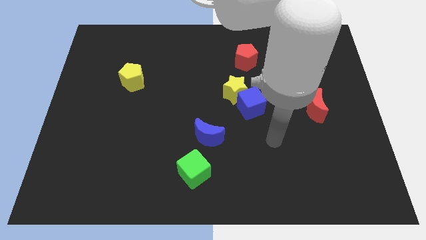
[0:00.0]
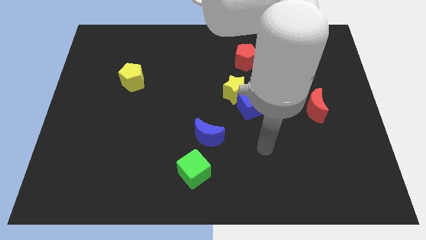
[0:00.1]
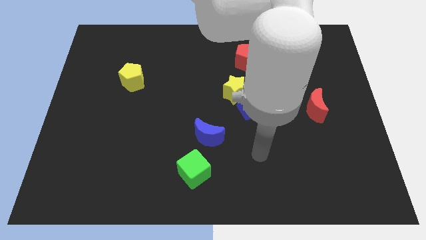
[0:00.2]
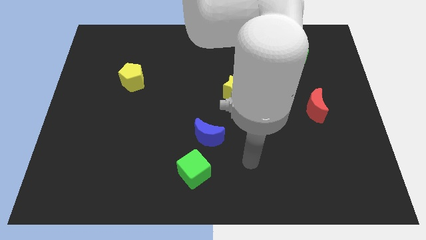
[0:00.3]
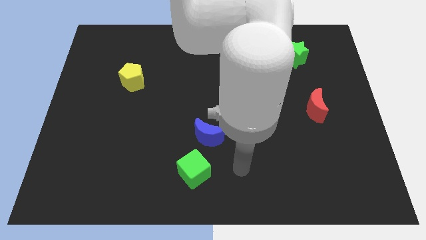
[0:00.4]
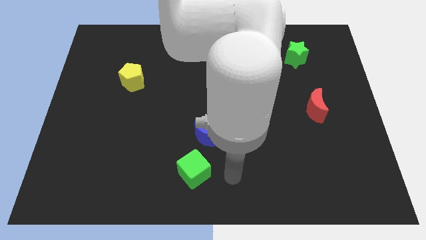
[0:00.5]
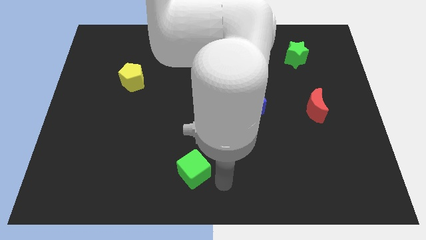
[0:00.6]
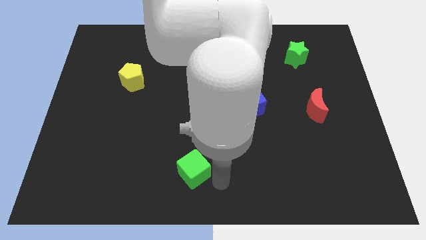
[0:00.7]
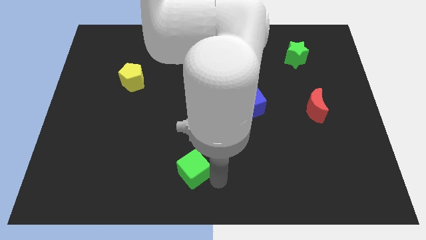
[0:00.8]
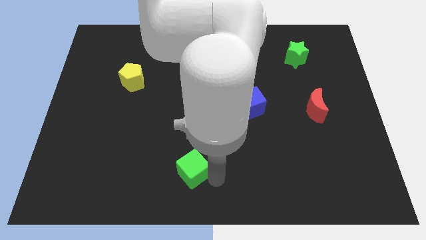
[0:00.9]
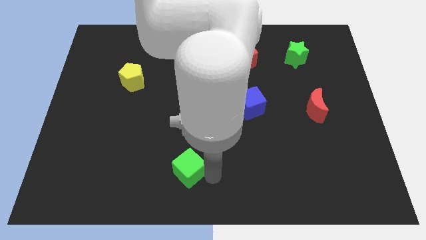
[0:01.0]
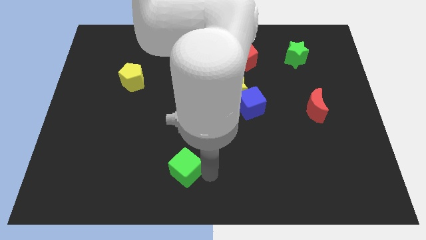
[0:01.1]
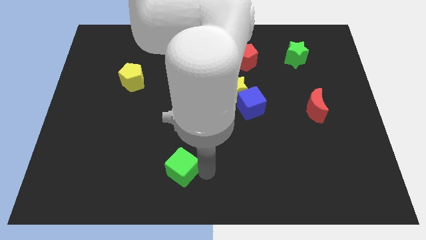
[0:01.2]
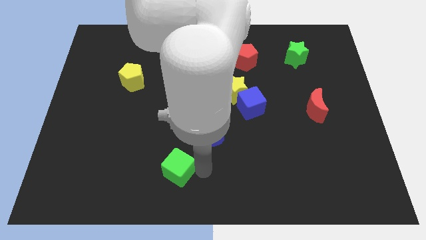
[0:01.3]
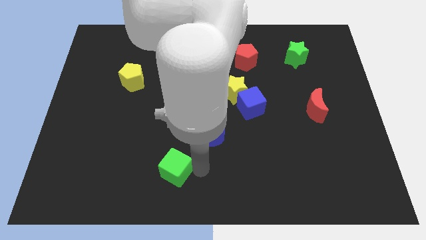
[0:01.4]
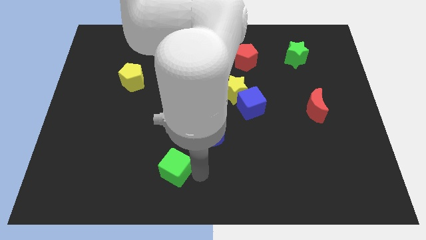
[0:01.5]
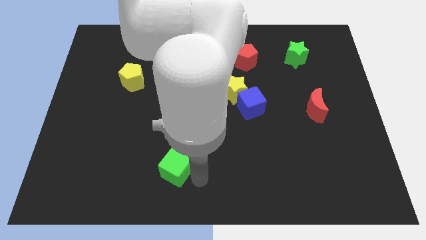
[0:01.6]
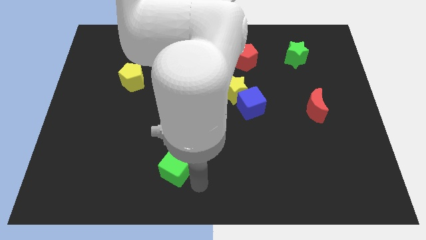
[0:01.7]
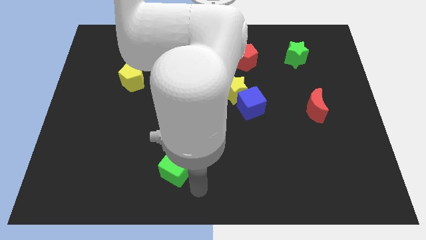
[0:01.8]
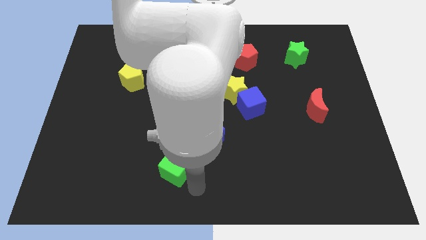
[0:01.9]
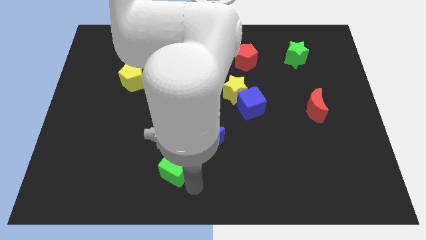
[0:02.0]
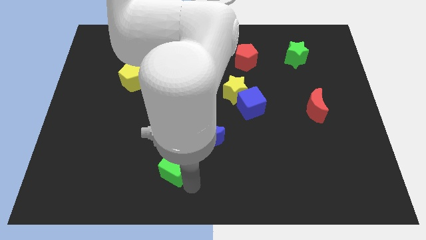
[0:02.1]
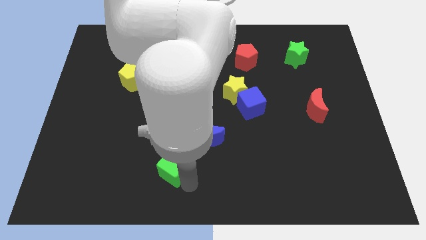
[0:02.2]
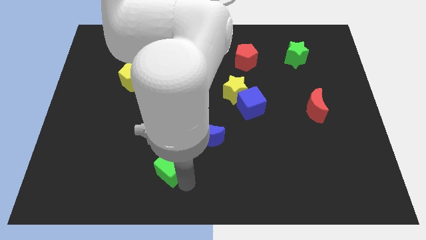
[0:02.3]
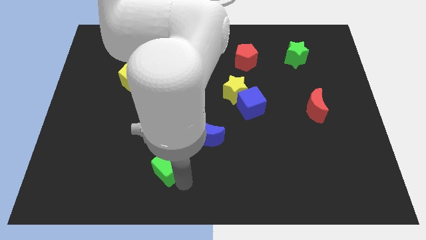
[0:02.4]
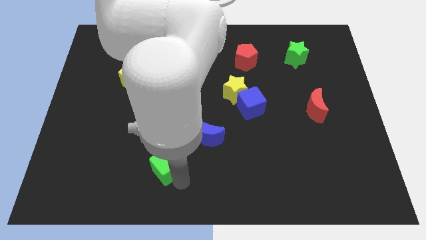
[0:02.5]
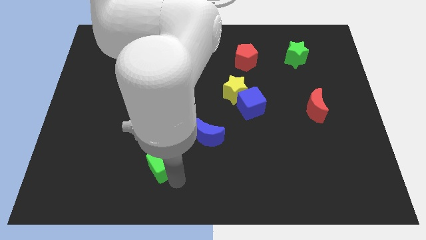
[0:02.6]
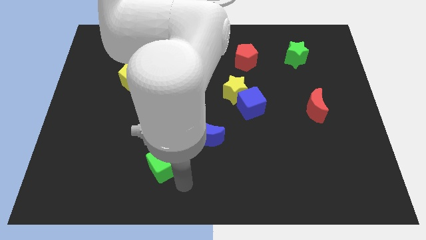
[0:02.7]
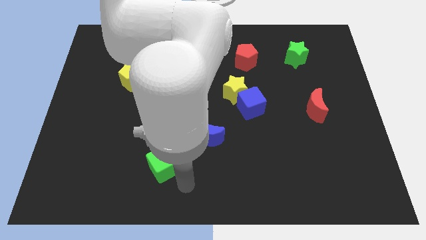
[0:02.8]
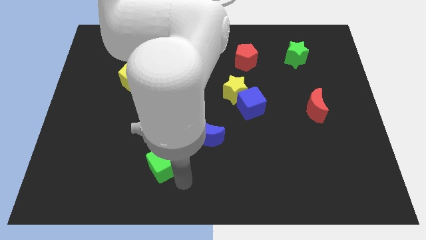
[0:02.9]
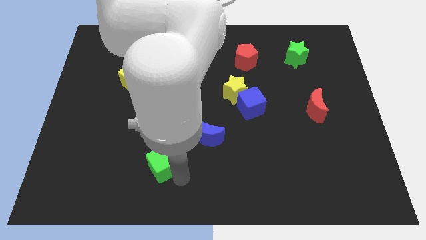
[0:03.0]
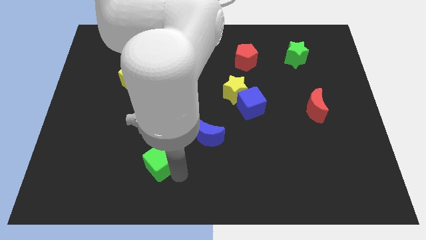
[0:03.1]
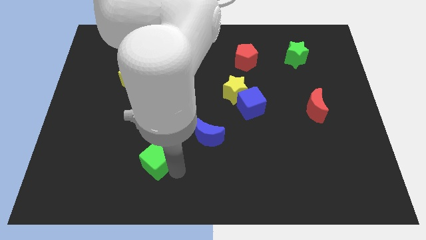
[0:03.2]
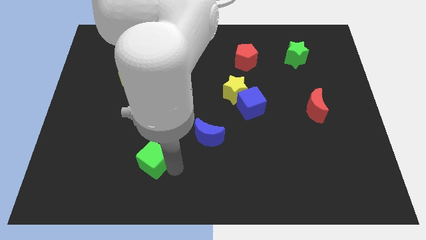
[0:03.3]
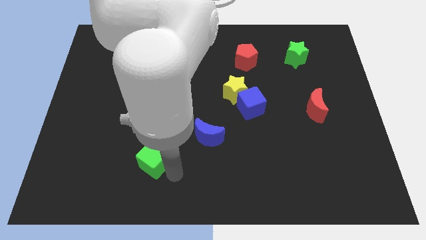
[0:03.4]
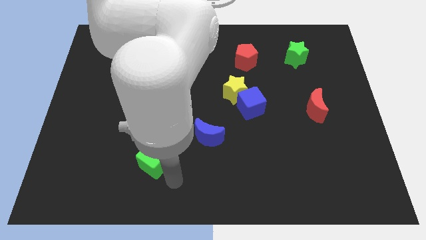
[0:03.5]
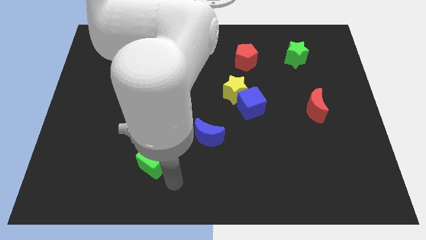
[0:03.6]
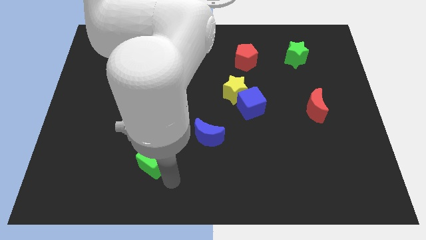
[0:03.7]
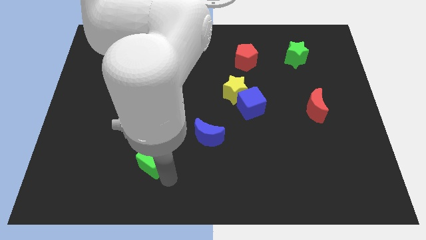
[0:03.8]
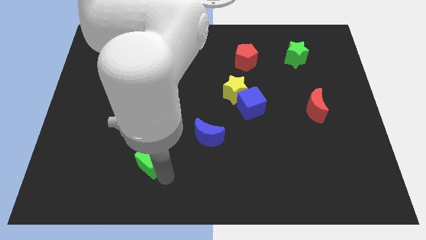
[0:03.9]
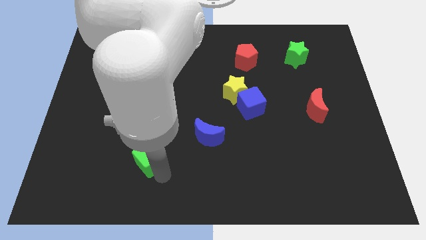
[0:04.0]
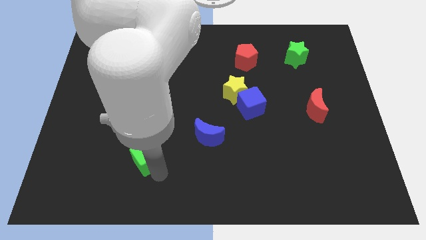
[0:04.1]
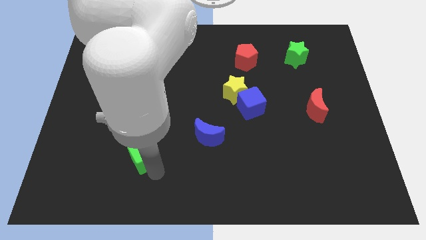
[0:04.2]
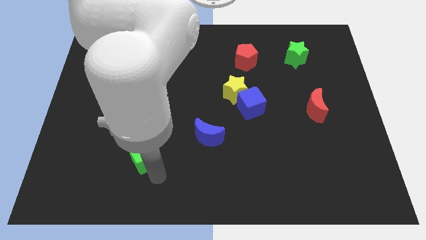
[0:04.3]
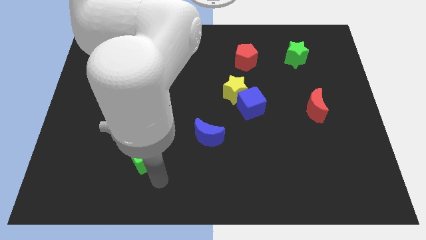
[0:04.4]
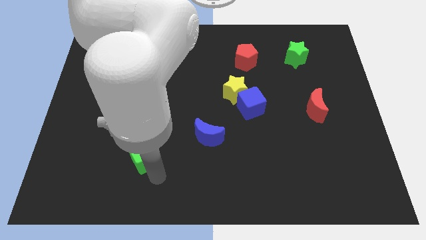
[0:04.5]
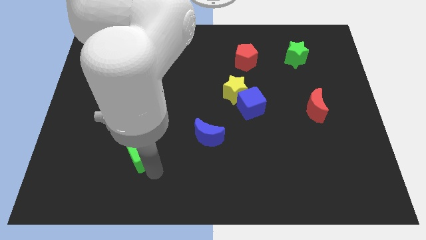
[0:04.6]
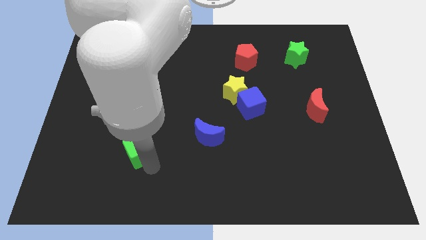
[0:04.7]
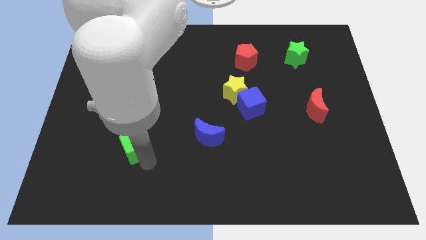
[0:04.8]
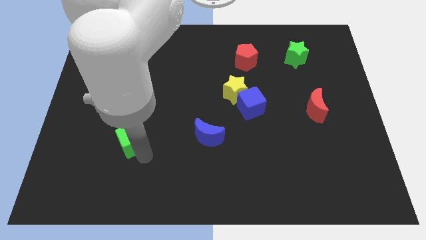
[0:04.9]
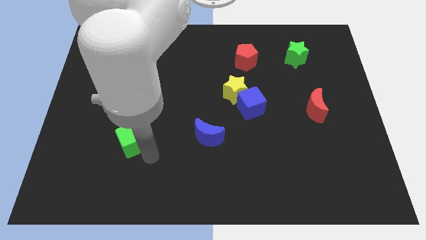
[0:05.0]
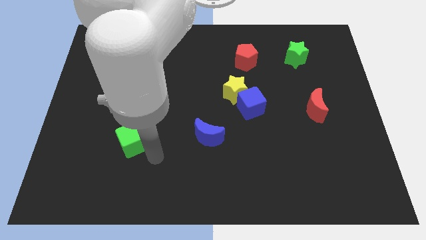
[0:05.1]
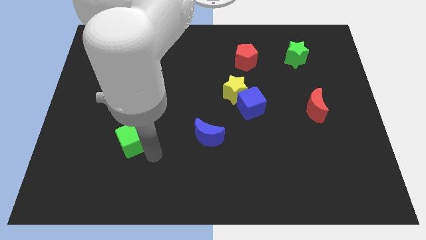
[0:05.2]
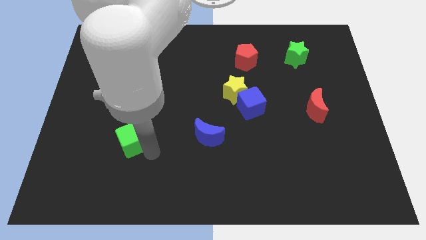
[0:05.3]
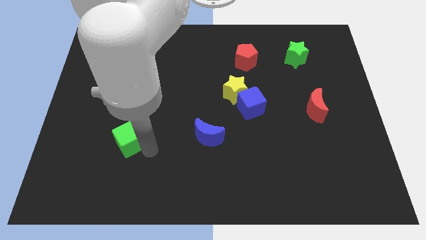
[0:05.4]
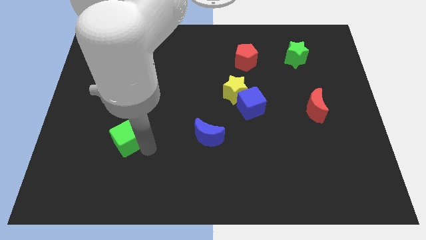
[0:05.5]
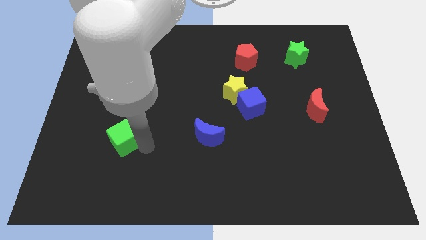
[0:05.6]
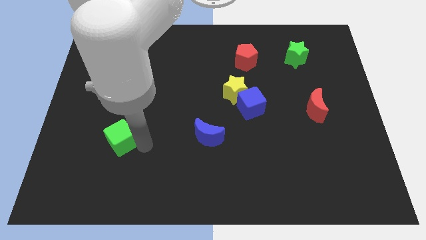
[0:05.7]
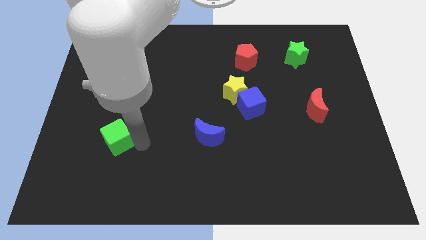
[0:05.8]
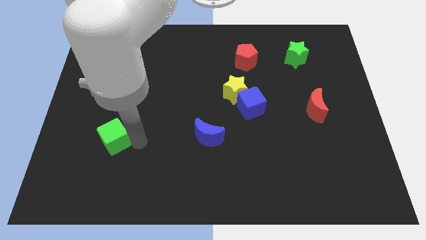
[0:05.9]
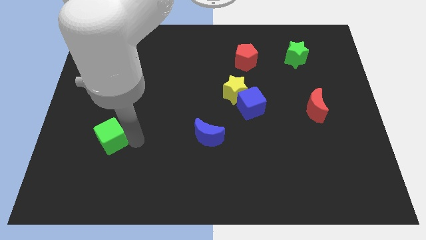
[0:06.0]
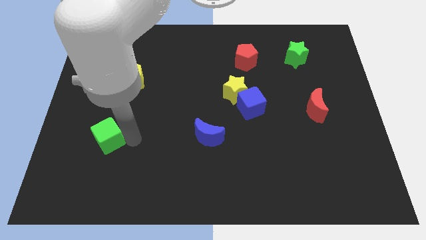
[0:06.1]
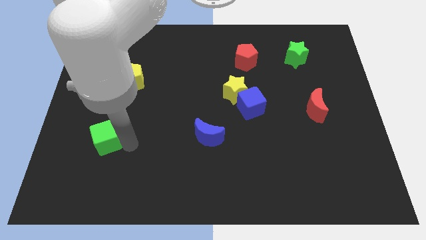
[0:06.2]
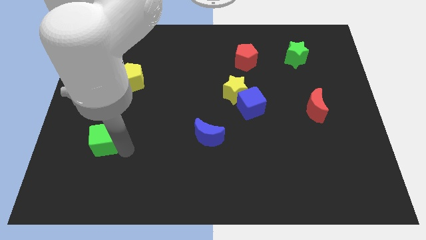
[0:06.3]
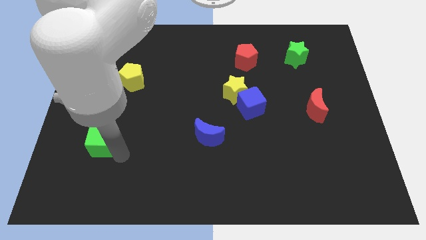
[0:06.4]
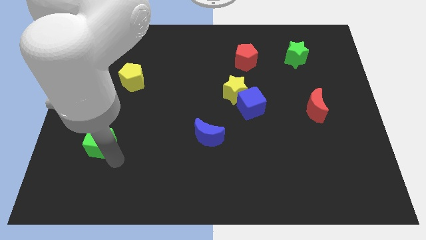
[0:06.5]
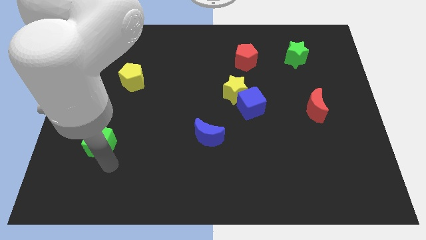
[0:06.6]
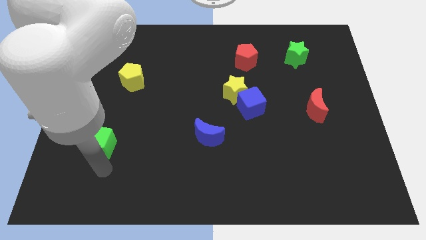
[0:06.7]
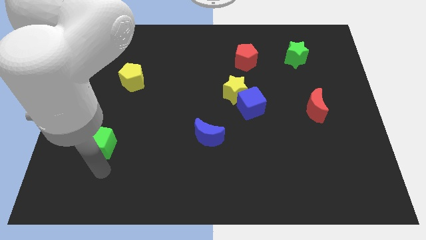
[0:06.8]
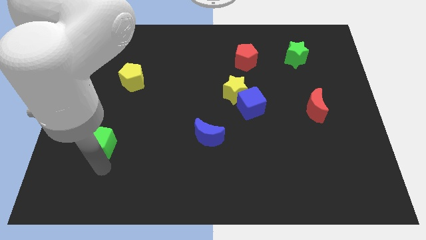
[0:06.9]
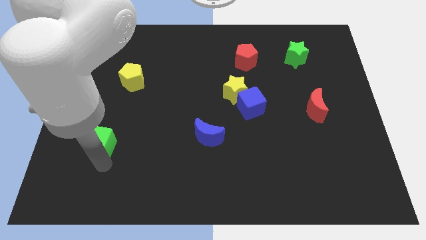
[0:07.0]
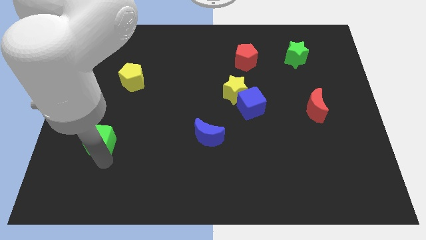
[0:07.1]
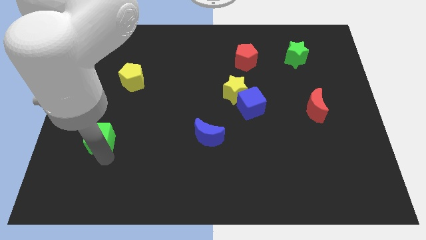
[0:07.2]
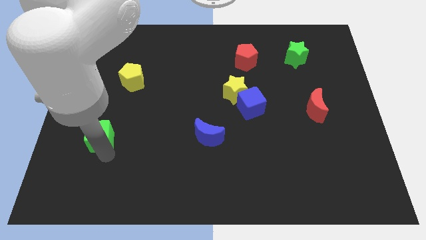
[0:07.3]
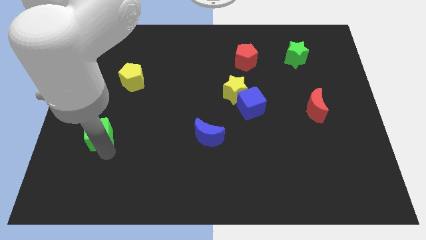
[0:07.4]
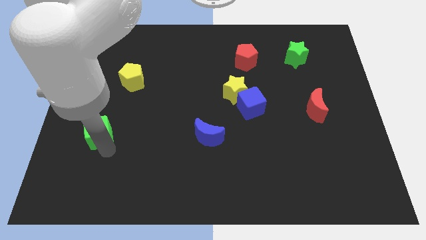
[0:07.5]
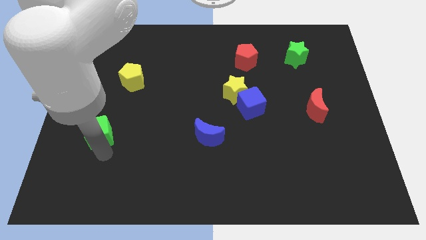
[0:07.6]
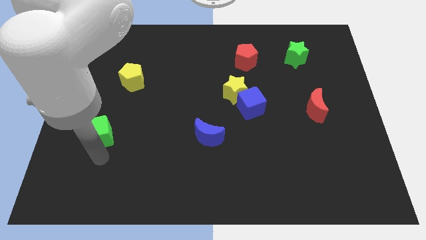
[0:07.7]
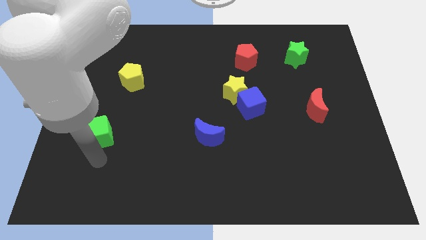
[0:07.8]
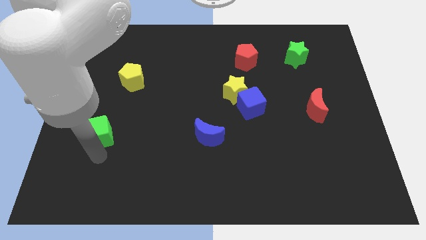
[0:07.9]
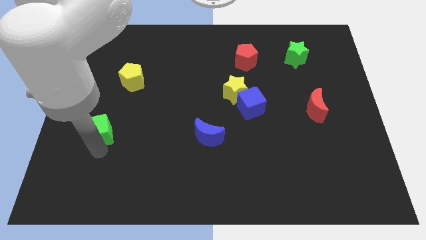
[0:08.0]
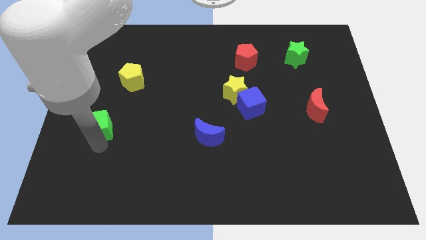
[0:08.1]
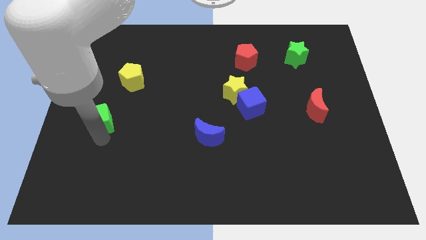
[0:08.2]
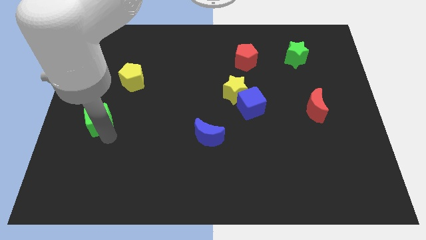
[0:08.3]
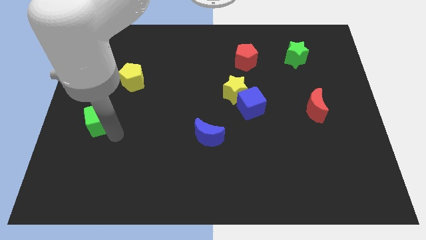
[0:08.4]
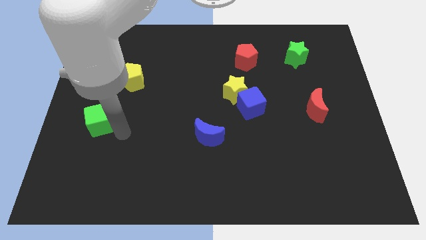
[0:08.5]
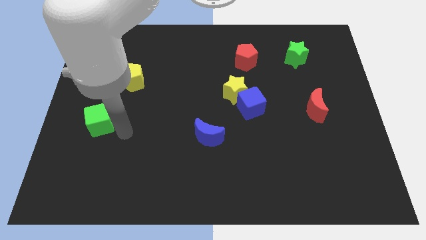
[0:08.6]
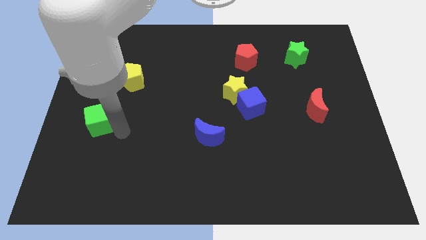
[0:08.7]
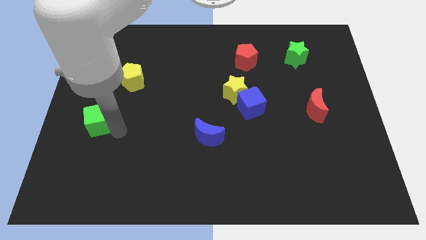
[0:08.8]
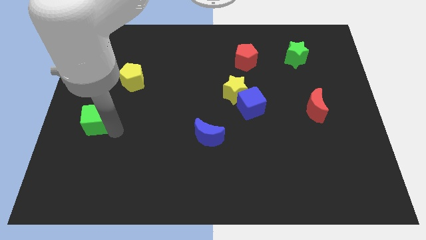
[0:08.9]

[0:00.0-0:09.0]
put the green cube to the center left
